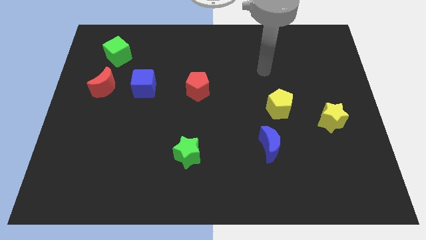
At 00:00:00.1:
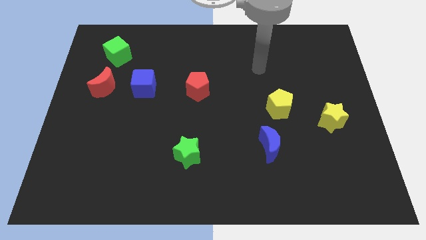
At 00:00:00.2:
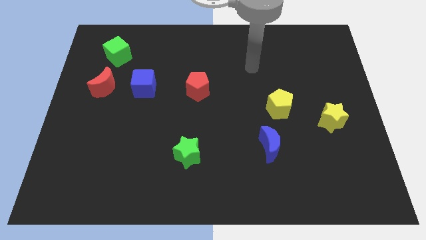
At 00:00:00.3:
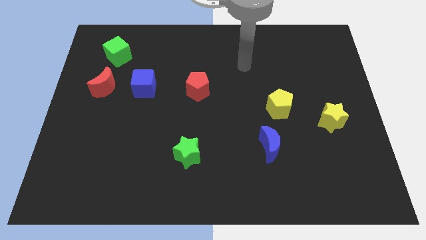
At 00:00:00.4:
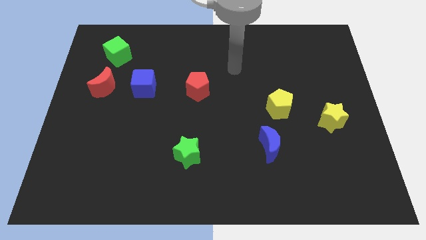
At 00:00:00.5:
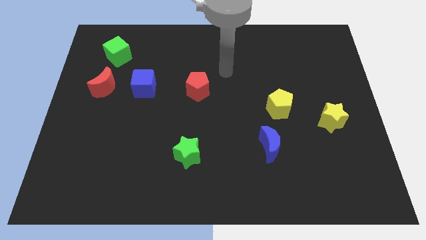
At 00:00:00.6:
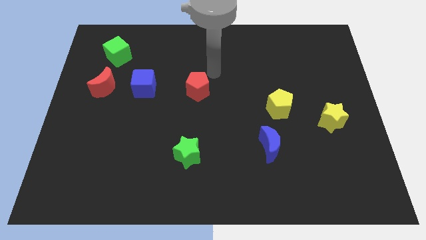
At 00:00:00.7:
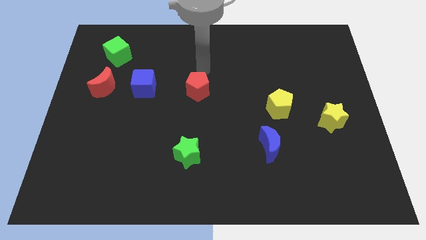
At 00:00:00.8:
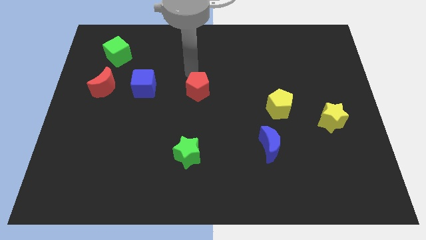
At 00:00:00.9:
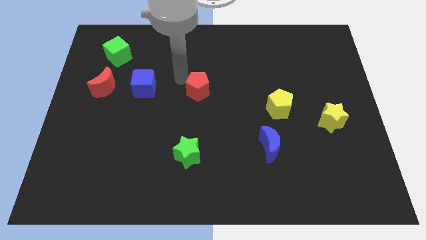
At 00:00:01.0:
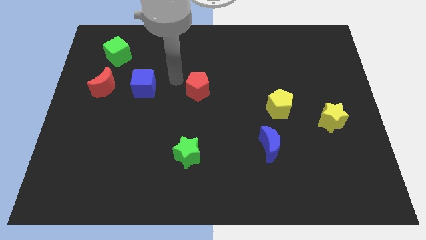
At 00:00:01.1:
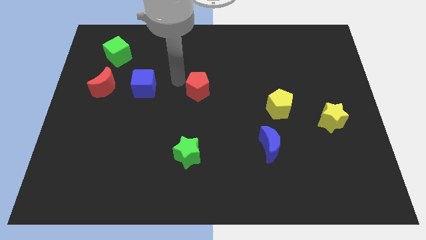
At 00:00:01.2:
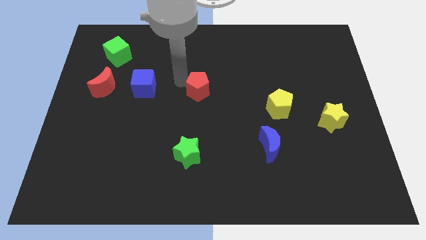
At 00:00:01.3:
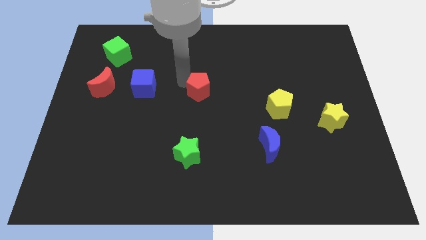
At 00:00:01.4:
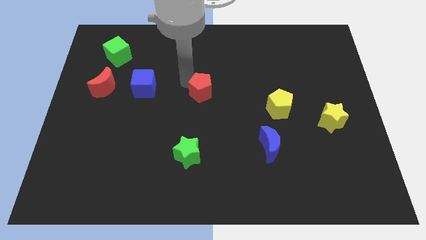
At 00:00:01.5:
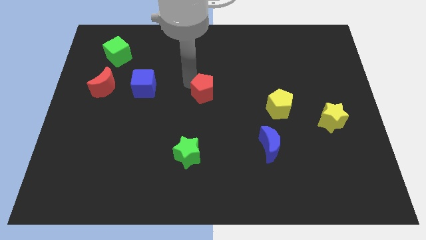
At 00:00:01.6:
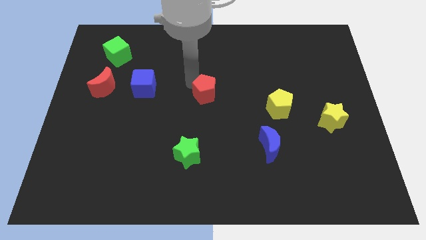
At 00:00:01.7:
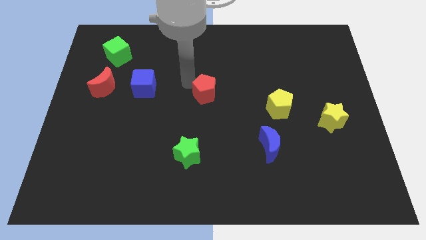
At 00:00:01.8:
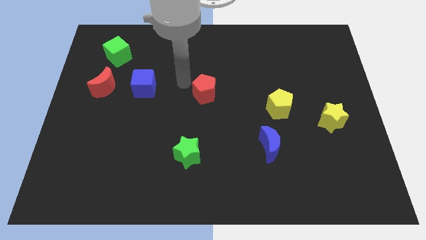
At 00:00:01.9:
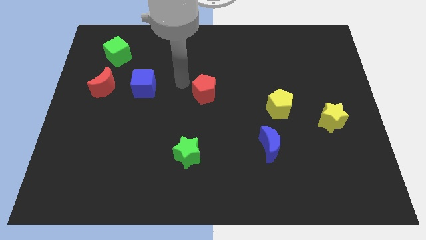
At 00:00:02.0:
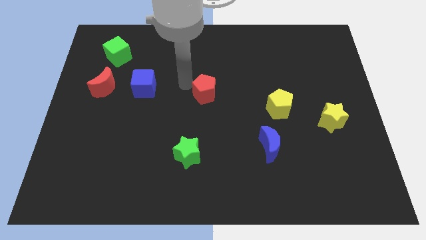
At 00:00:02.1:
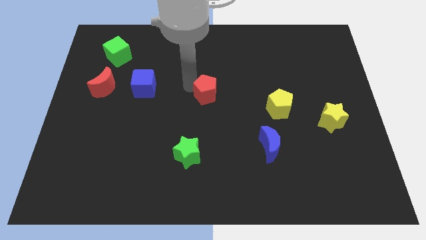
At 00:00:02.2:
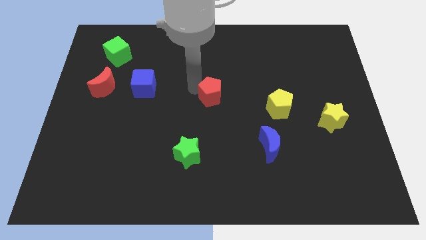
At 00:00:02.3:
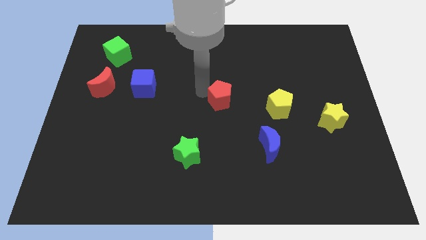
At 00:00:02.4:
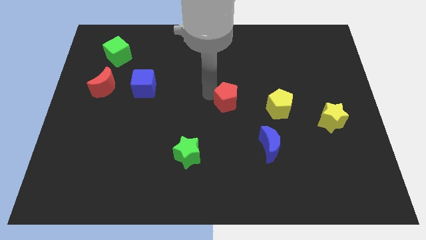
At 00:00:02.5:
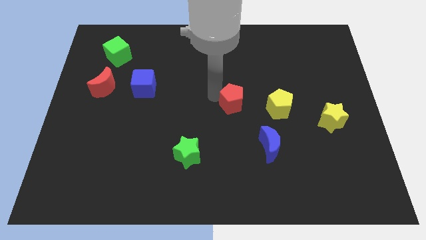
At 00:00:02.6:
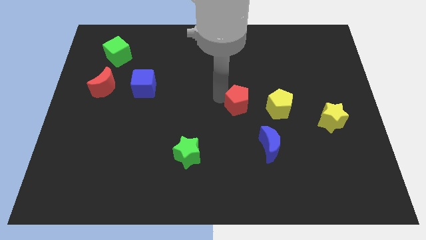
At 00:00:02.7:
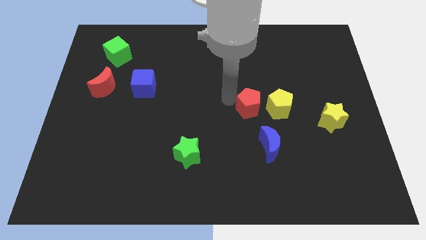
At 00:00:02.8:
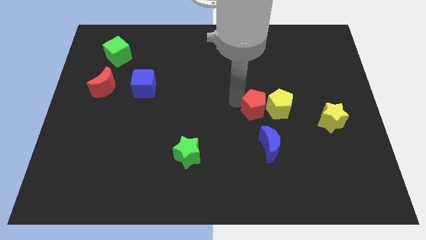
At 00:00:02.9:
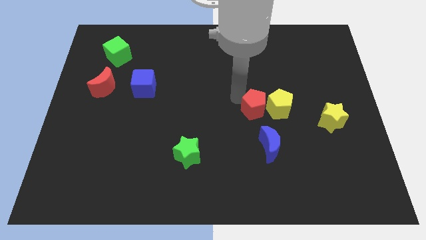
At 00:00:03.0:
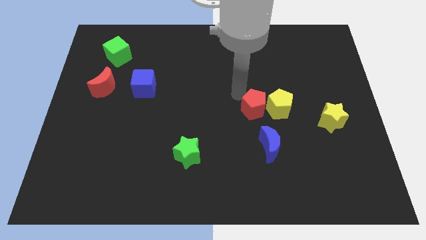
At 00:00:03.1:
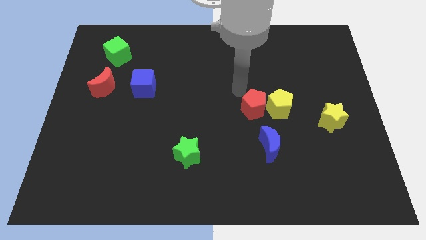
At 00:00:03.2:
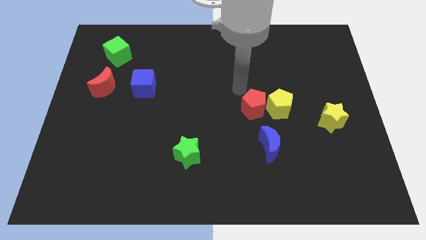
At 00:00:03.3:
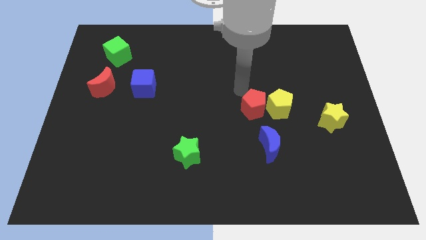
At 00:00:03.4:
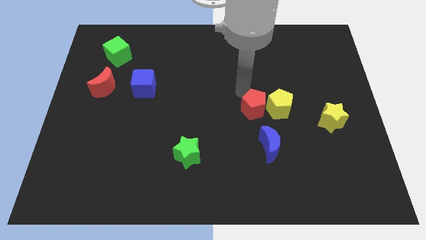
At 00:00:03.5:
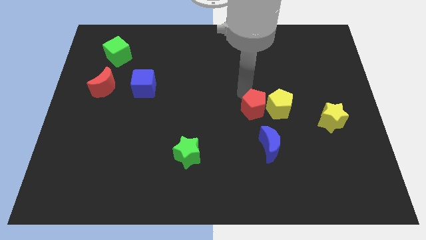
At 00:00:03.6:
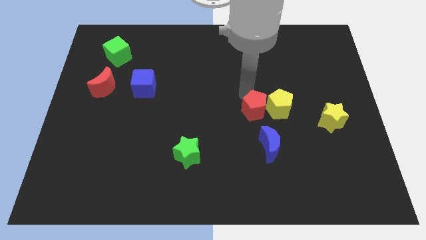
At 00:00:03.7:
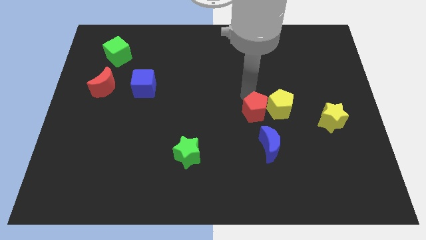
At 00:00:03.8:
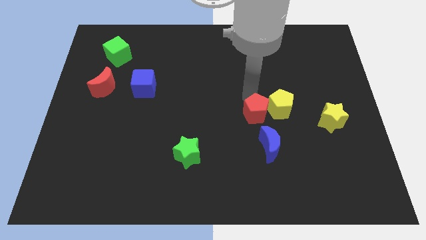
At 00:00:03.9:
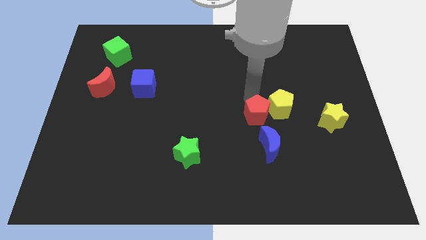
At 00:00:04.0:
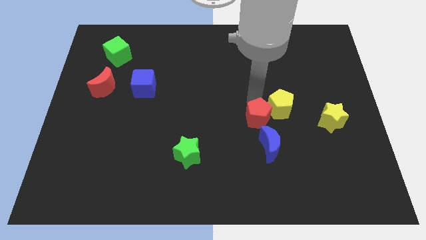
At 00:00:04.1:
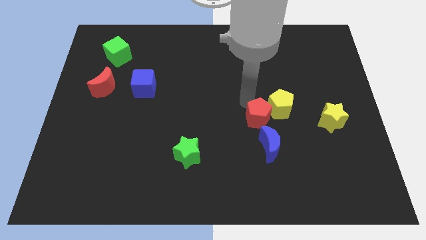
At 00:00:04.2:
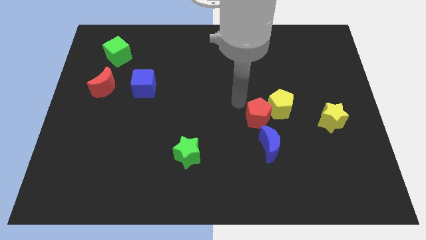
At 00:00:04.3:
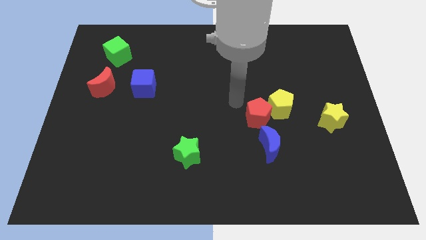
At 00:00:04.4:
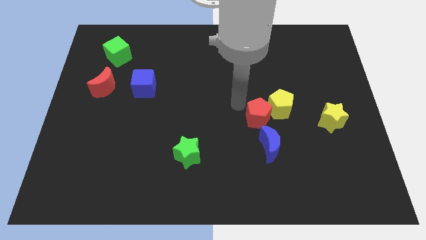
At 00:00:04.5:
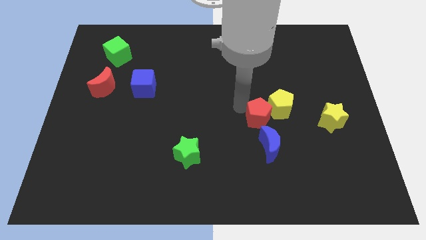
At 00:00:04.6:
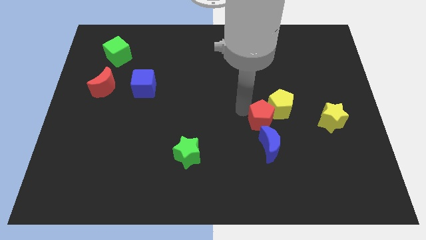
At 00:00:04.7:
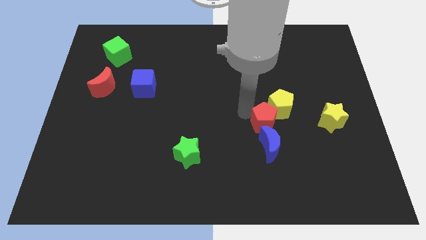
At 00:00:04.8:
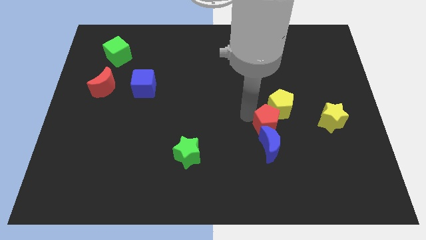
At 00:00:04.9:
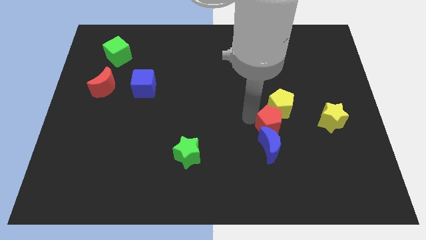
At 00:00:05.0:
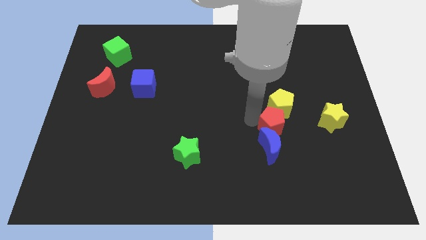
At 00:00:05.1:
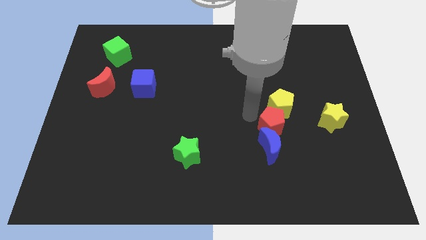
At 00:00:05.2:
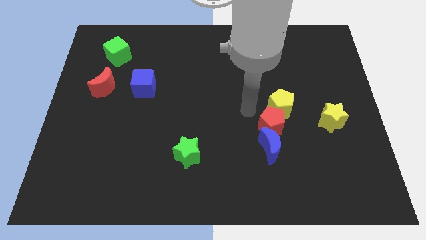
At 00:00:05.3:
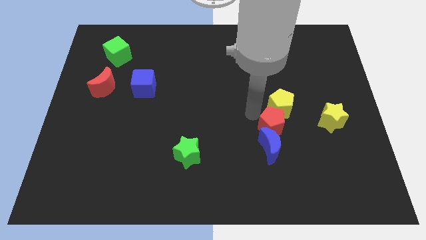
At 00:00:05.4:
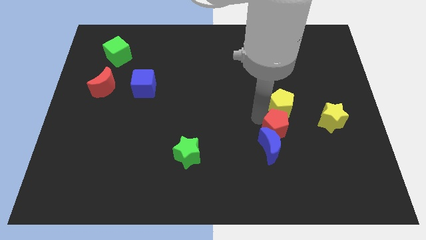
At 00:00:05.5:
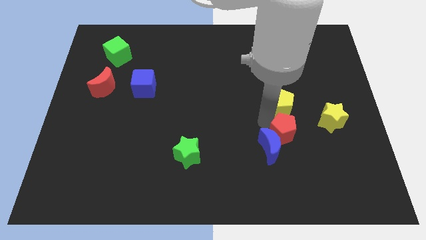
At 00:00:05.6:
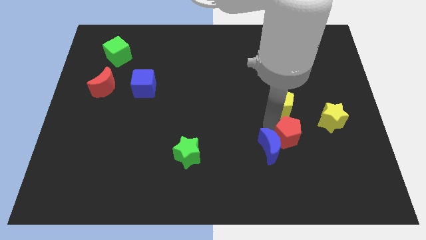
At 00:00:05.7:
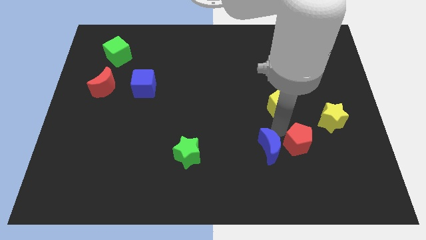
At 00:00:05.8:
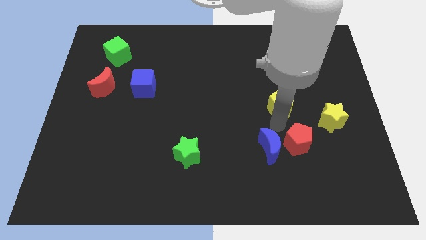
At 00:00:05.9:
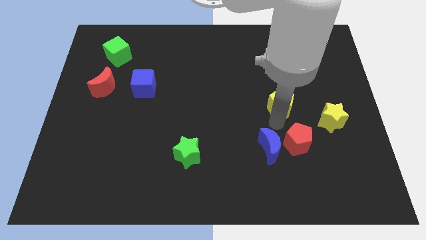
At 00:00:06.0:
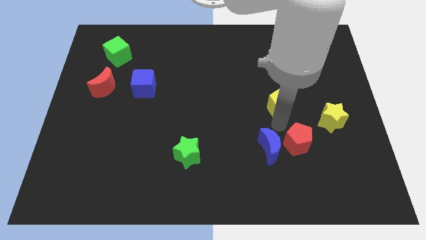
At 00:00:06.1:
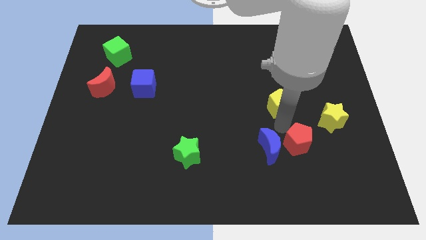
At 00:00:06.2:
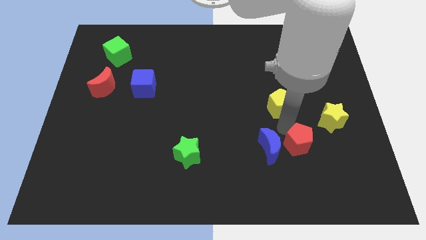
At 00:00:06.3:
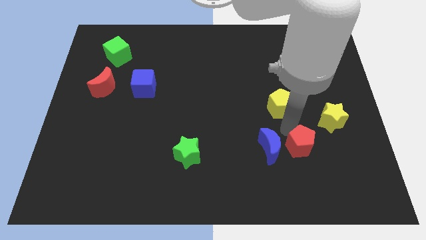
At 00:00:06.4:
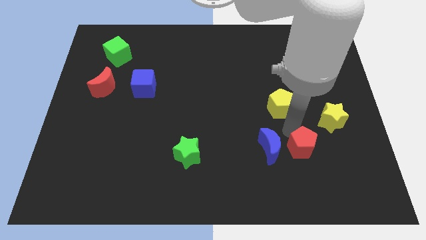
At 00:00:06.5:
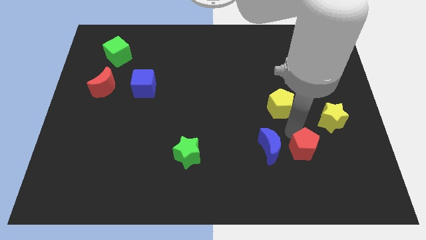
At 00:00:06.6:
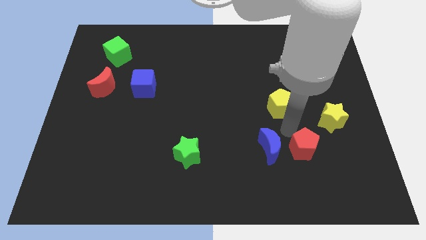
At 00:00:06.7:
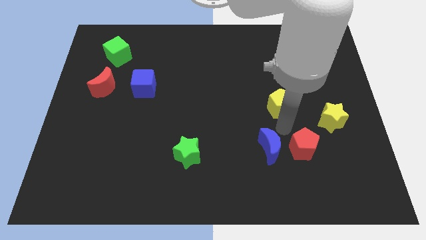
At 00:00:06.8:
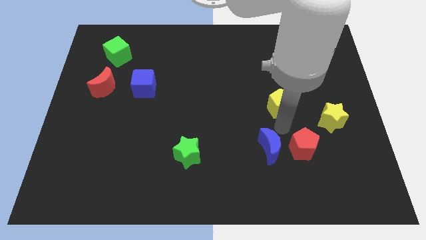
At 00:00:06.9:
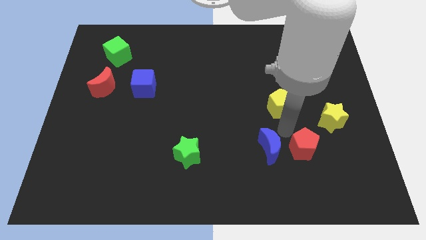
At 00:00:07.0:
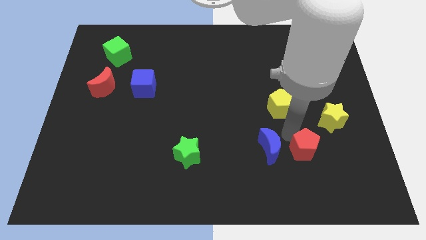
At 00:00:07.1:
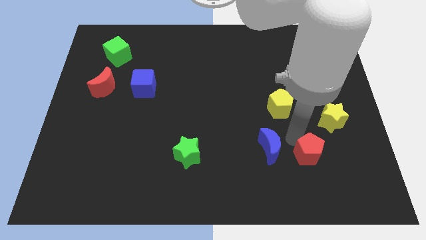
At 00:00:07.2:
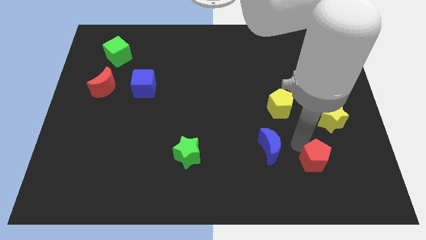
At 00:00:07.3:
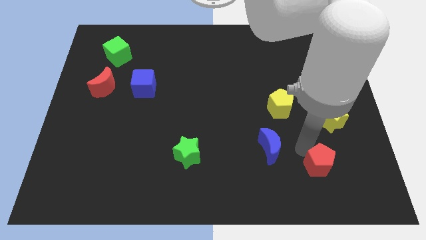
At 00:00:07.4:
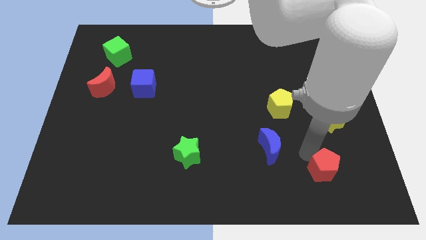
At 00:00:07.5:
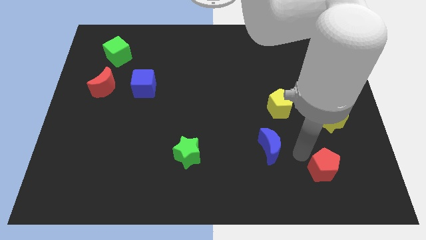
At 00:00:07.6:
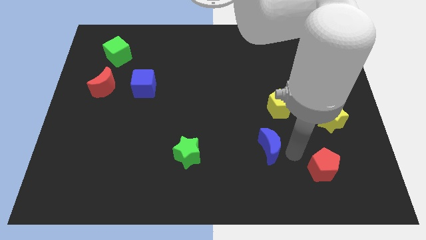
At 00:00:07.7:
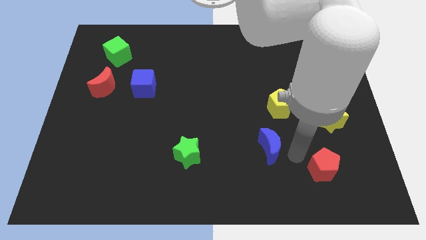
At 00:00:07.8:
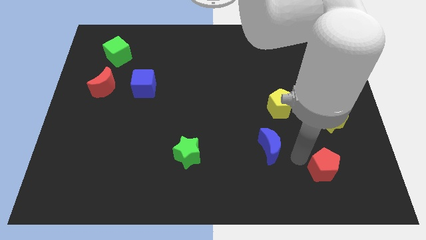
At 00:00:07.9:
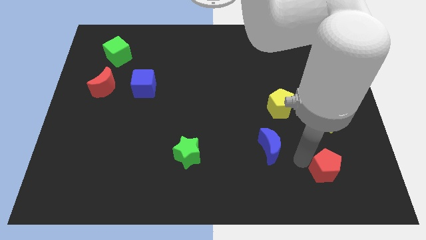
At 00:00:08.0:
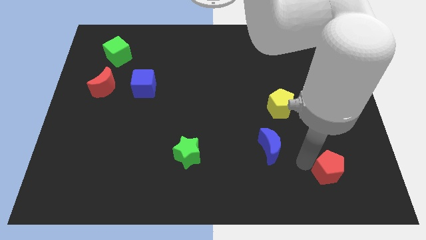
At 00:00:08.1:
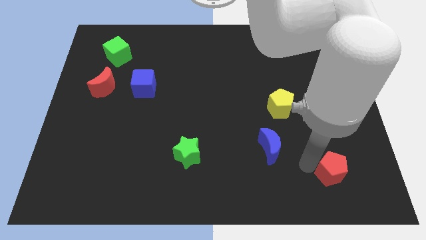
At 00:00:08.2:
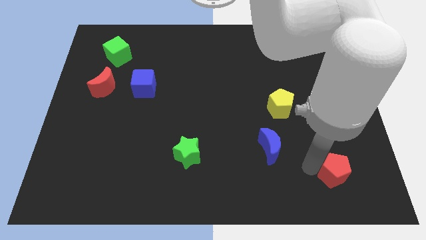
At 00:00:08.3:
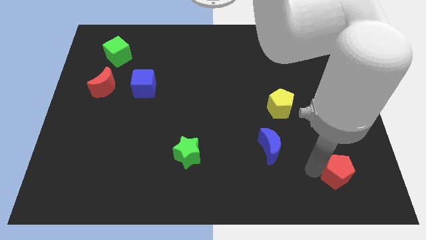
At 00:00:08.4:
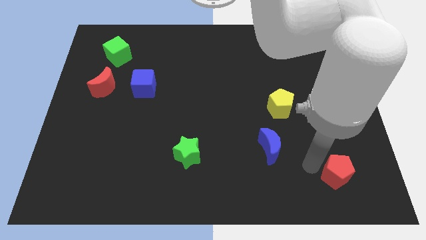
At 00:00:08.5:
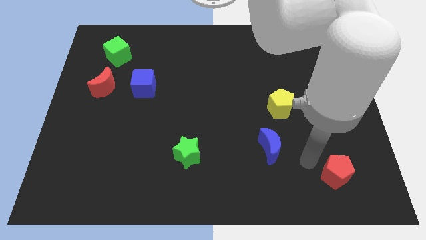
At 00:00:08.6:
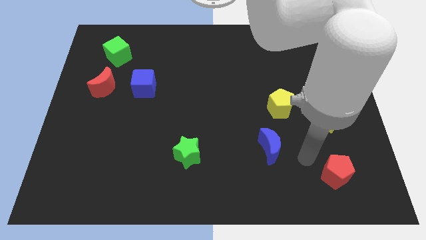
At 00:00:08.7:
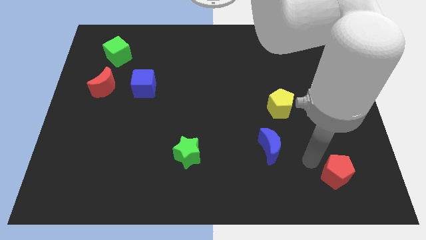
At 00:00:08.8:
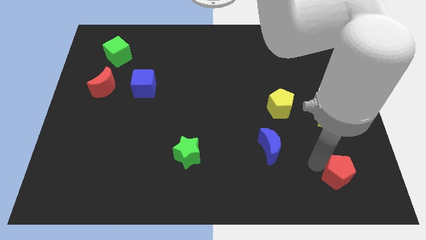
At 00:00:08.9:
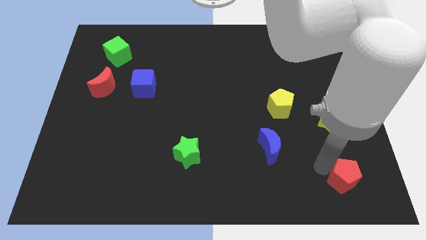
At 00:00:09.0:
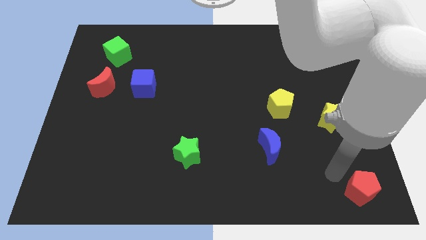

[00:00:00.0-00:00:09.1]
slide the red pentagon to the bottom right
